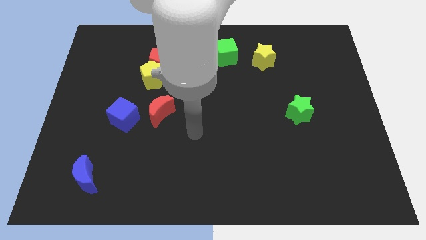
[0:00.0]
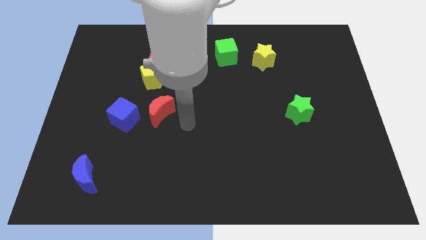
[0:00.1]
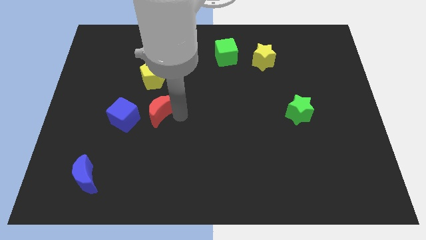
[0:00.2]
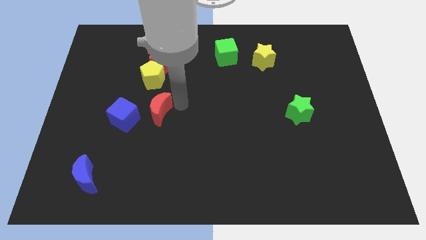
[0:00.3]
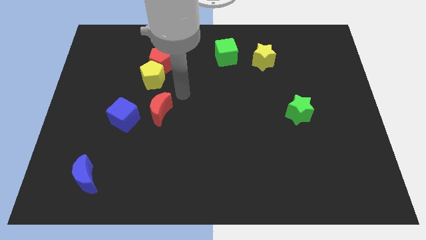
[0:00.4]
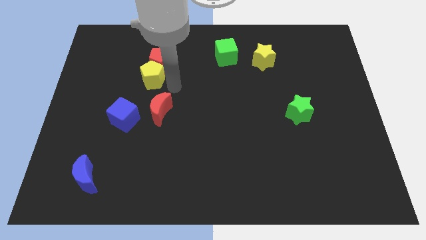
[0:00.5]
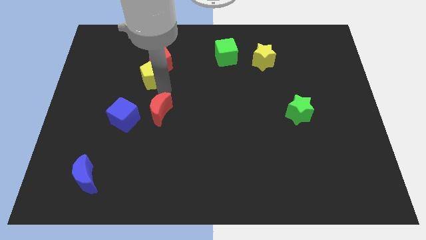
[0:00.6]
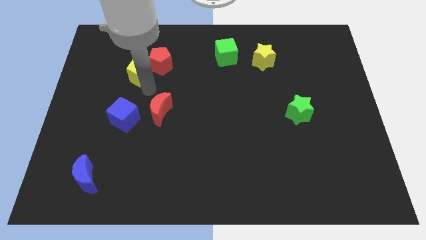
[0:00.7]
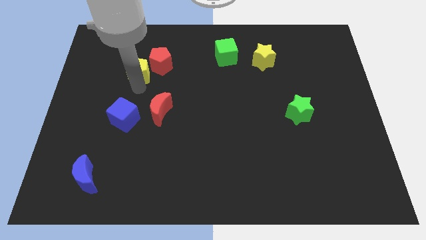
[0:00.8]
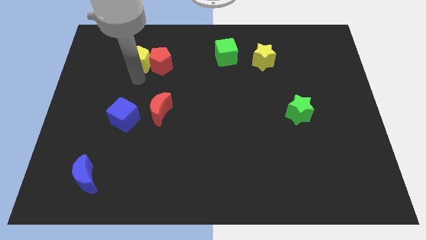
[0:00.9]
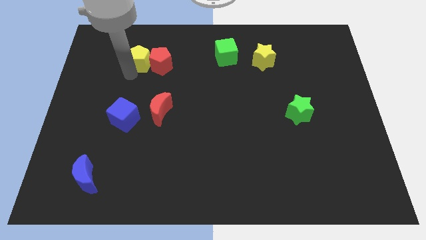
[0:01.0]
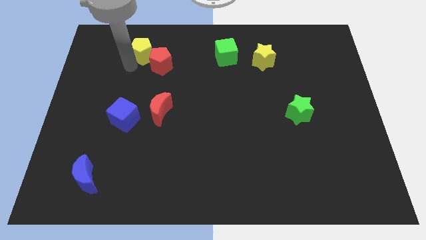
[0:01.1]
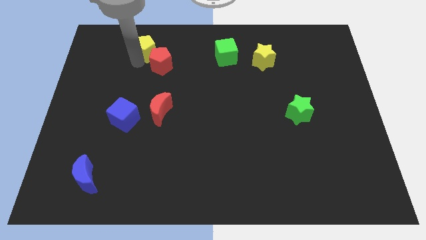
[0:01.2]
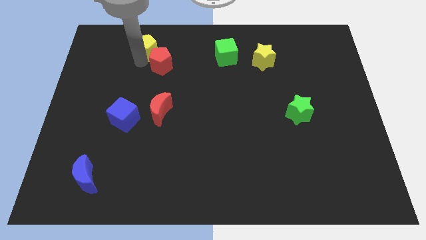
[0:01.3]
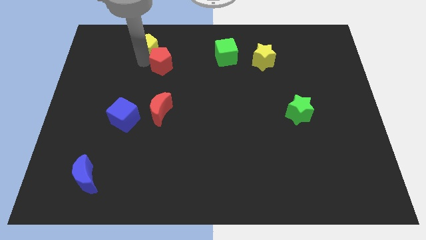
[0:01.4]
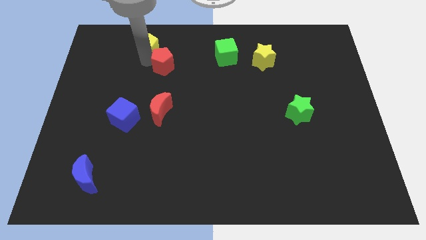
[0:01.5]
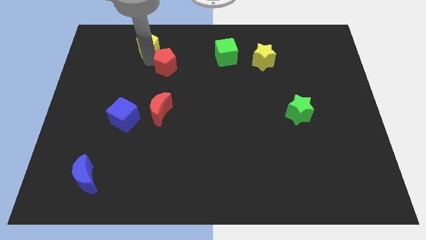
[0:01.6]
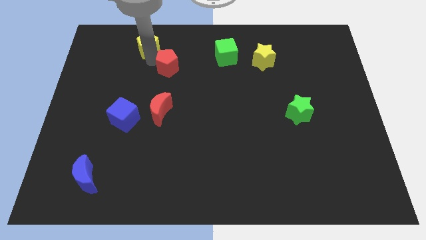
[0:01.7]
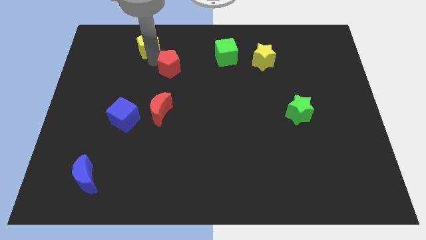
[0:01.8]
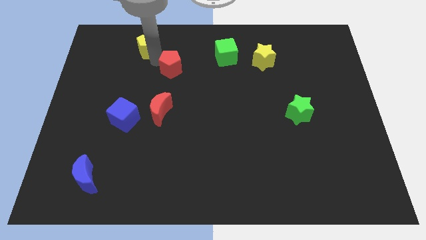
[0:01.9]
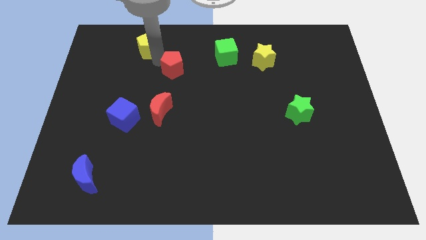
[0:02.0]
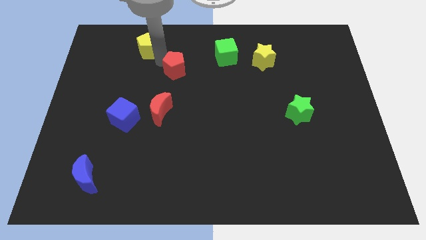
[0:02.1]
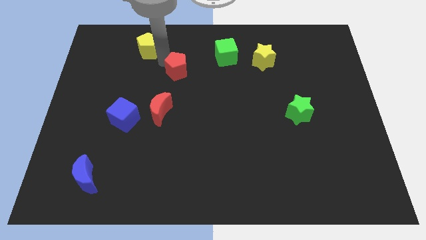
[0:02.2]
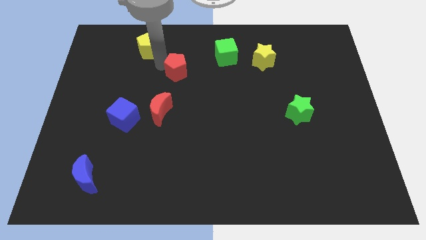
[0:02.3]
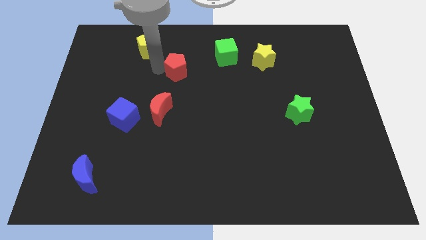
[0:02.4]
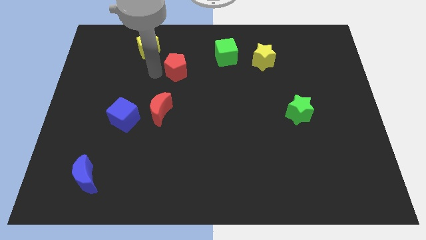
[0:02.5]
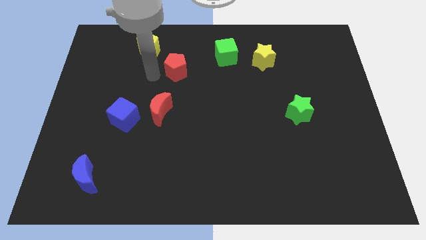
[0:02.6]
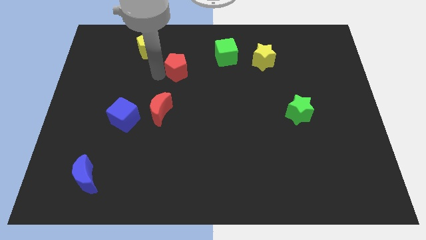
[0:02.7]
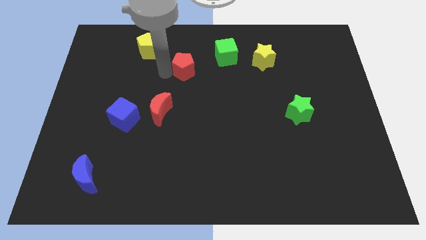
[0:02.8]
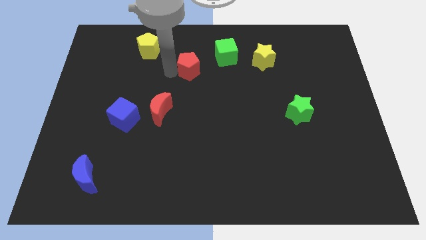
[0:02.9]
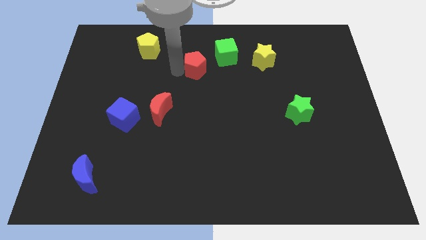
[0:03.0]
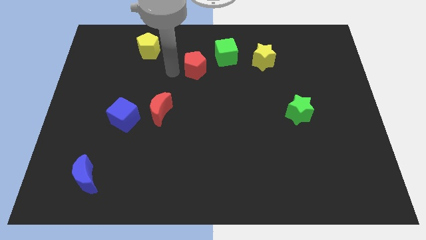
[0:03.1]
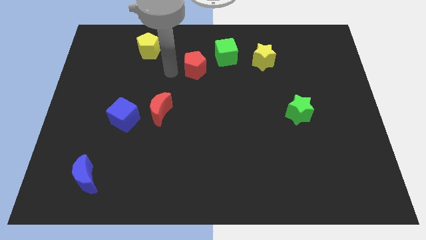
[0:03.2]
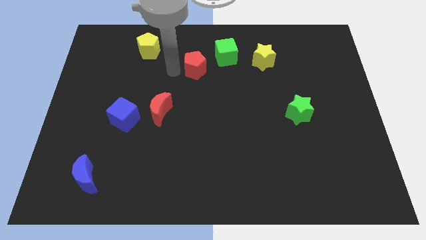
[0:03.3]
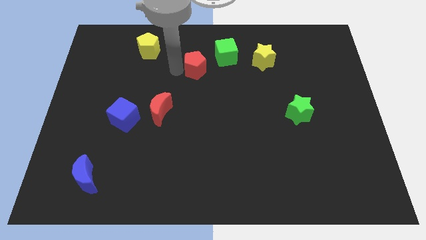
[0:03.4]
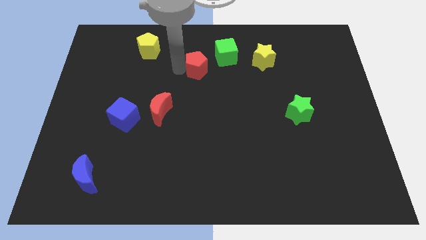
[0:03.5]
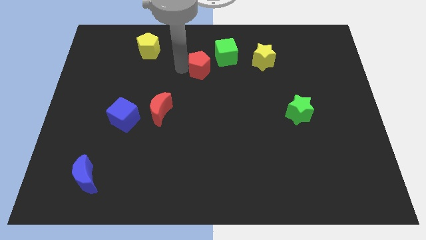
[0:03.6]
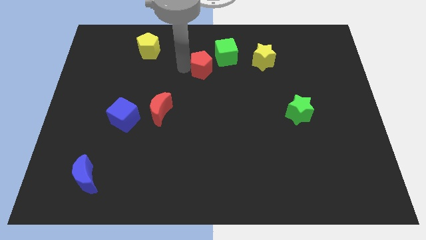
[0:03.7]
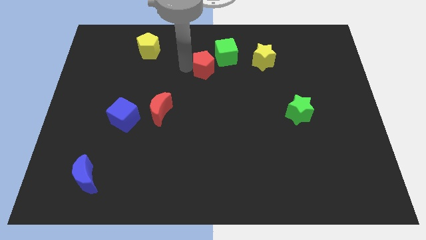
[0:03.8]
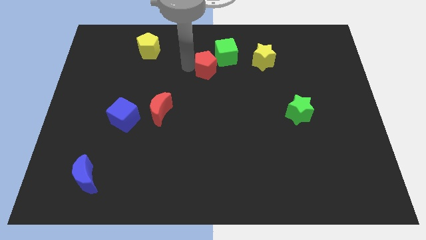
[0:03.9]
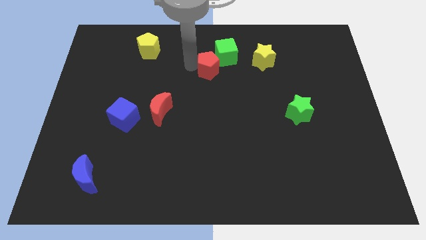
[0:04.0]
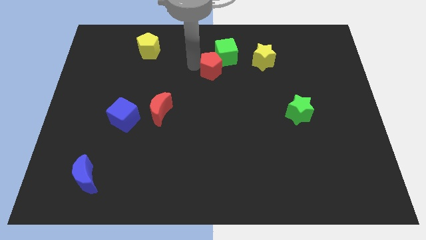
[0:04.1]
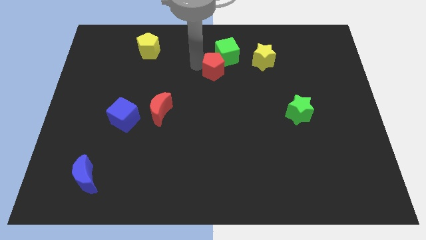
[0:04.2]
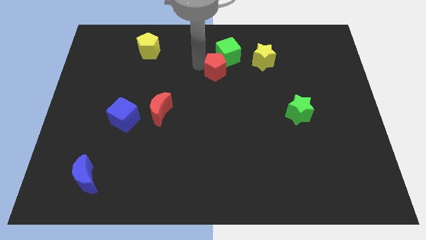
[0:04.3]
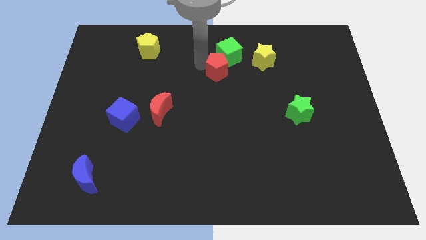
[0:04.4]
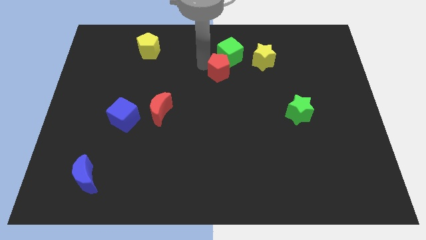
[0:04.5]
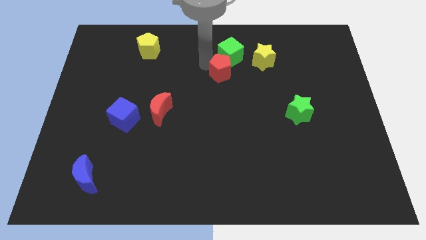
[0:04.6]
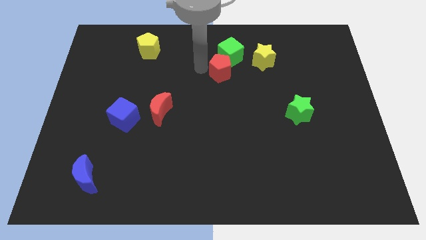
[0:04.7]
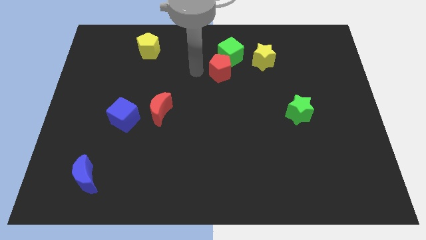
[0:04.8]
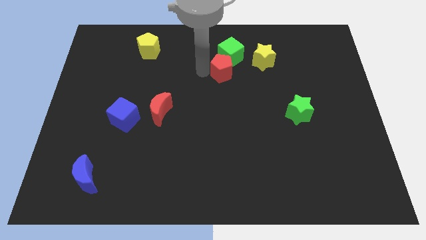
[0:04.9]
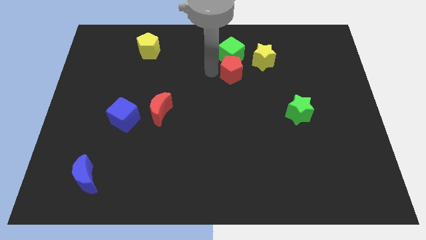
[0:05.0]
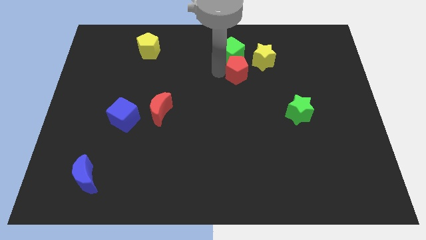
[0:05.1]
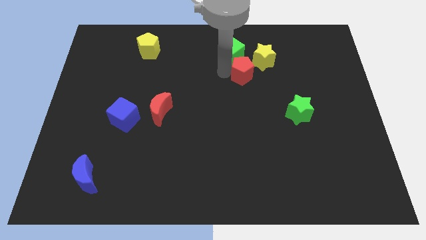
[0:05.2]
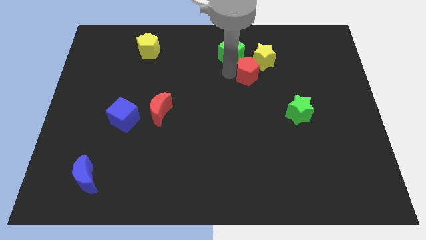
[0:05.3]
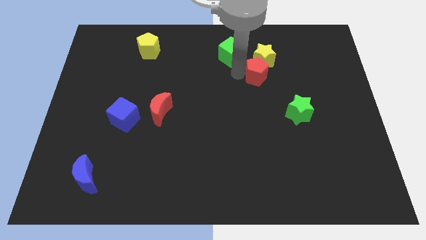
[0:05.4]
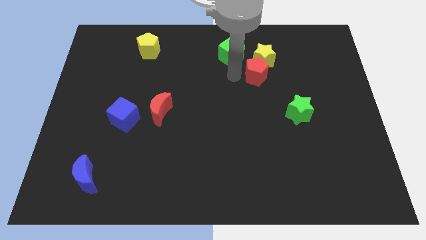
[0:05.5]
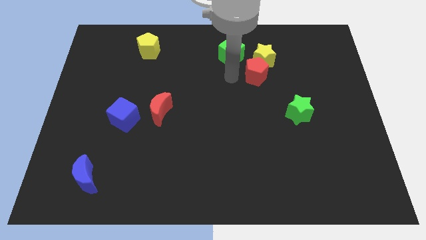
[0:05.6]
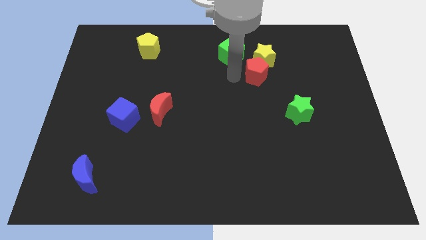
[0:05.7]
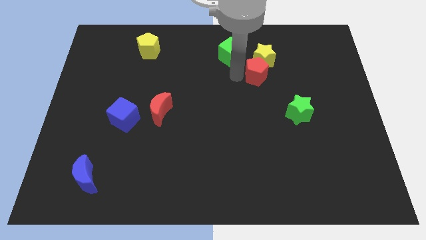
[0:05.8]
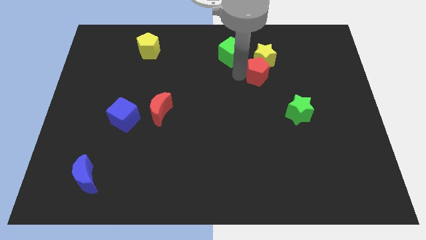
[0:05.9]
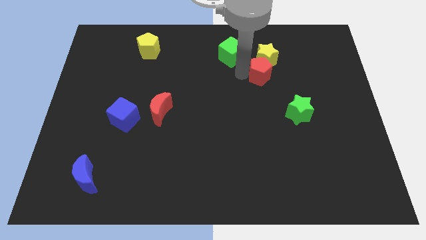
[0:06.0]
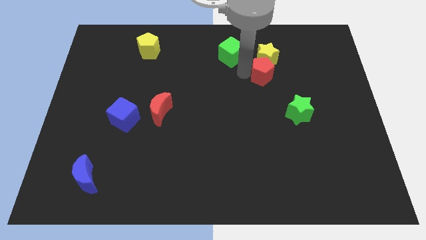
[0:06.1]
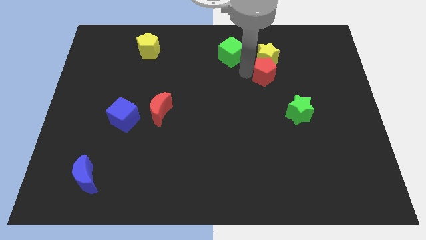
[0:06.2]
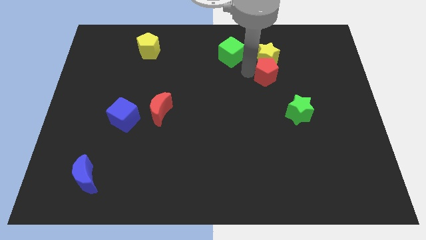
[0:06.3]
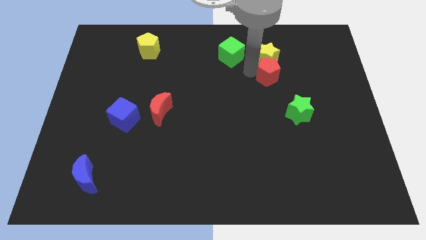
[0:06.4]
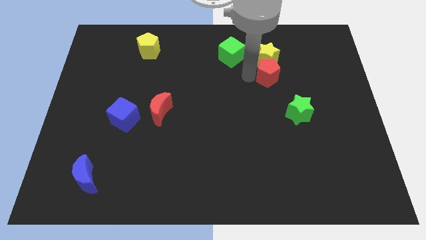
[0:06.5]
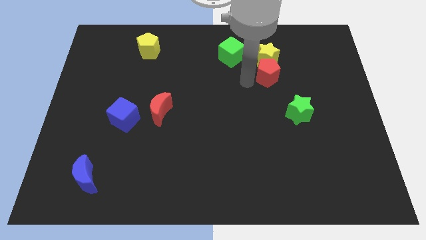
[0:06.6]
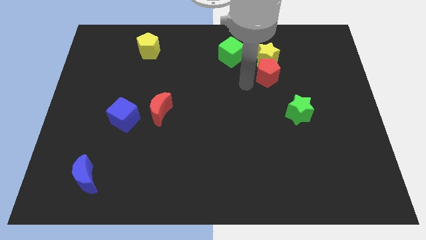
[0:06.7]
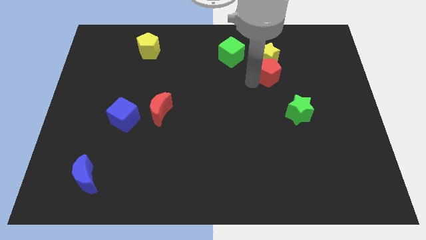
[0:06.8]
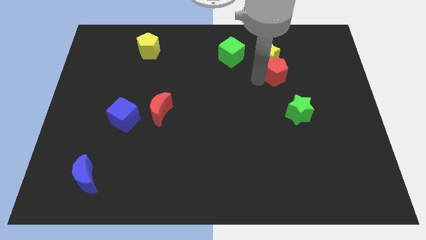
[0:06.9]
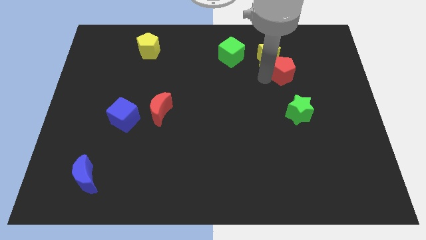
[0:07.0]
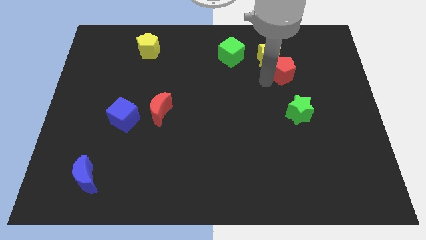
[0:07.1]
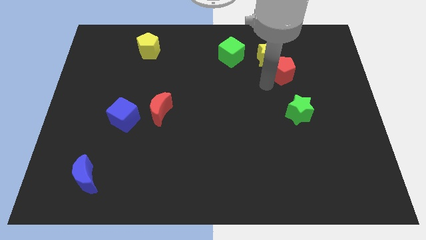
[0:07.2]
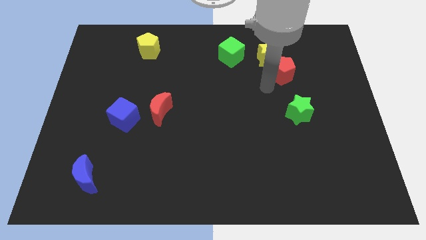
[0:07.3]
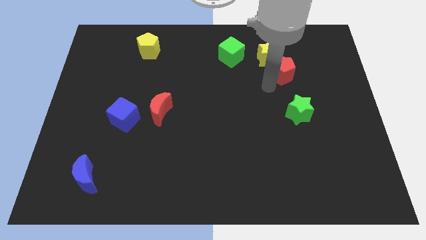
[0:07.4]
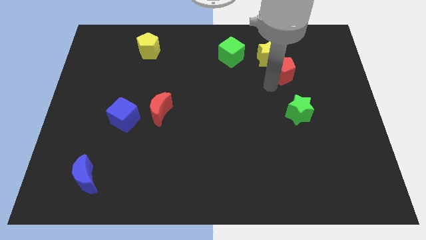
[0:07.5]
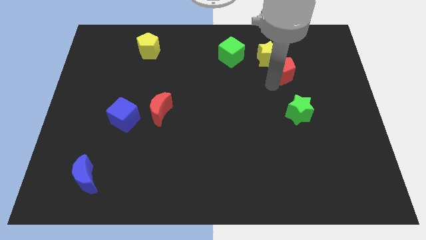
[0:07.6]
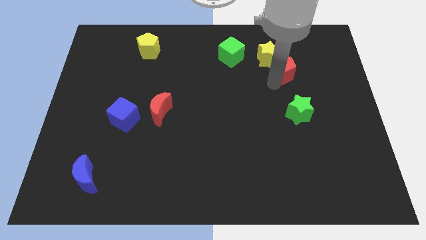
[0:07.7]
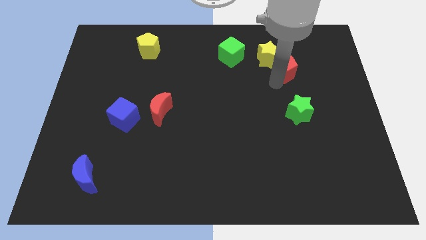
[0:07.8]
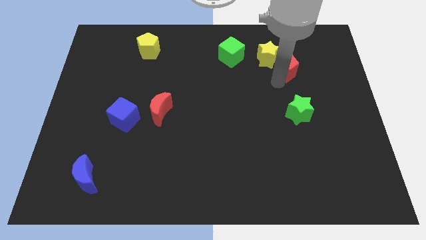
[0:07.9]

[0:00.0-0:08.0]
move the red pentagon to the right of the yellow star

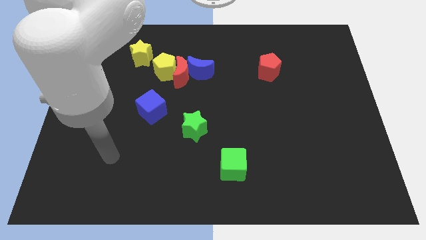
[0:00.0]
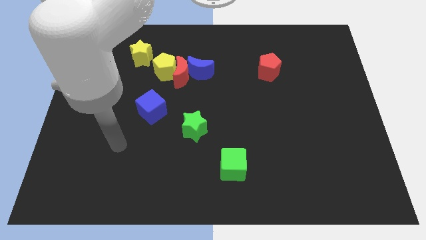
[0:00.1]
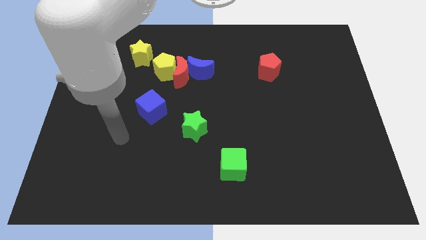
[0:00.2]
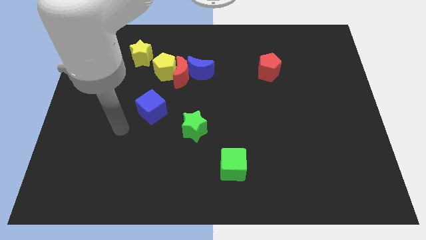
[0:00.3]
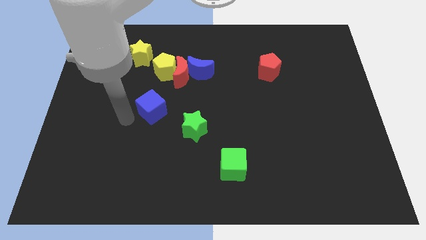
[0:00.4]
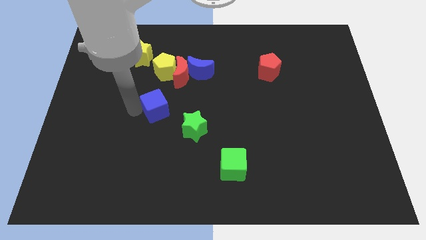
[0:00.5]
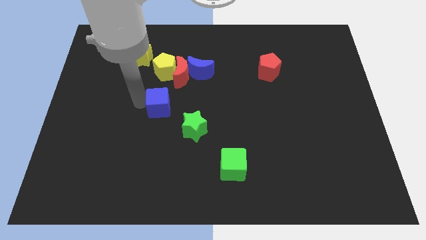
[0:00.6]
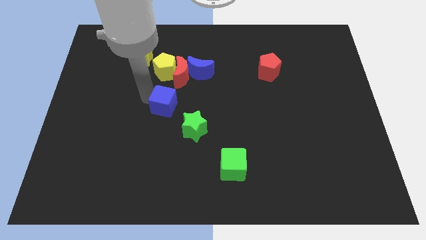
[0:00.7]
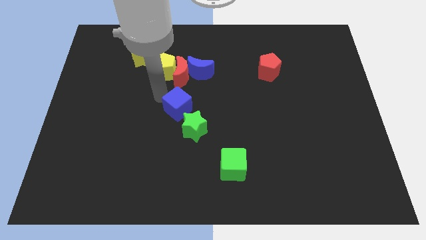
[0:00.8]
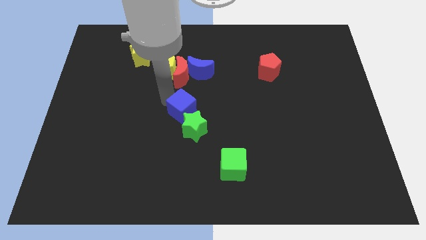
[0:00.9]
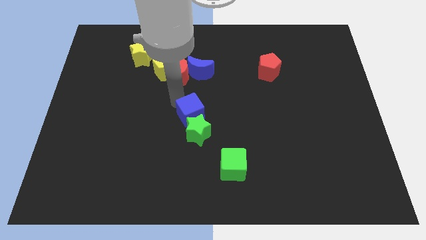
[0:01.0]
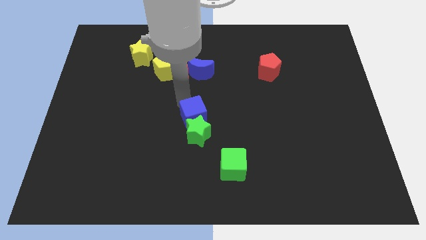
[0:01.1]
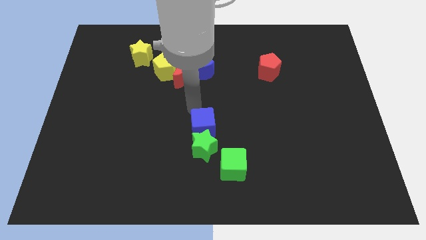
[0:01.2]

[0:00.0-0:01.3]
slide the green star to the left of the green cube
